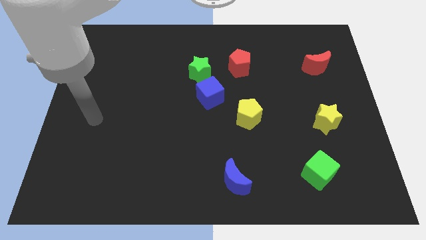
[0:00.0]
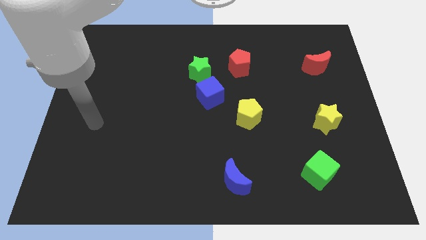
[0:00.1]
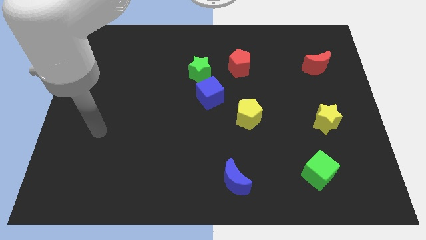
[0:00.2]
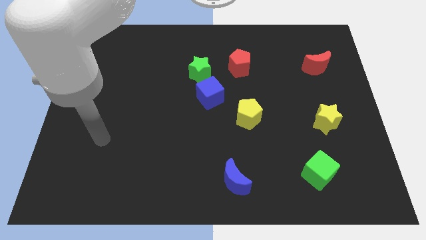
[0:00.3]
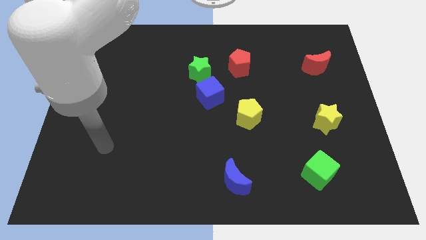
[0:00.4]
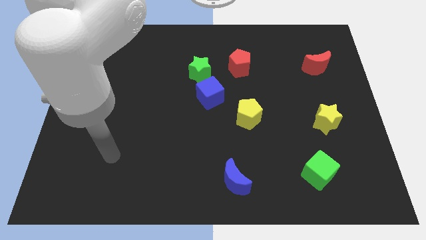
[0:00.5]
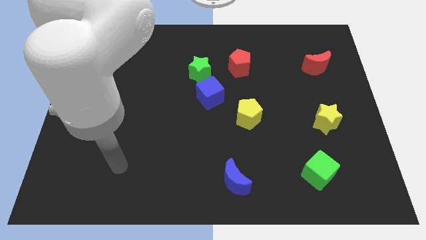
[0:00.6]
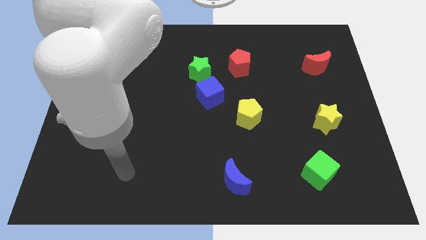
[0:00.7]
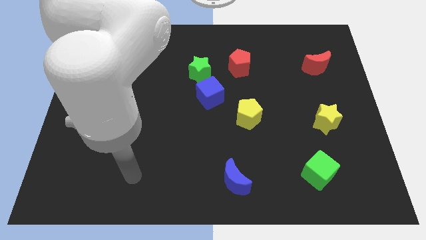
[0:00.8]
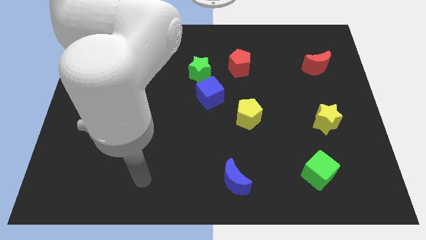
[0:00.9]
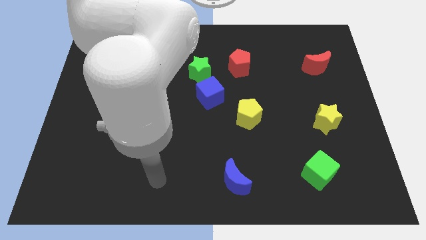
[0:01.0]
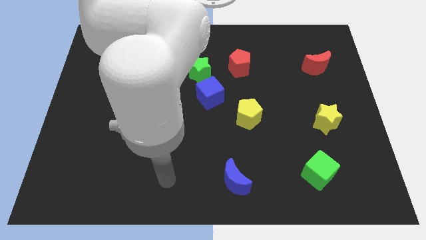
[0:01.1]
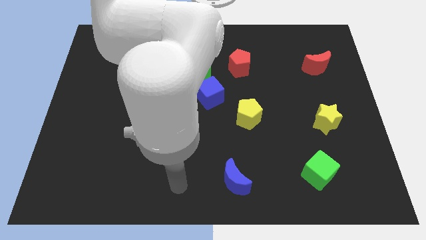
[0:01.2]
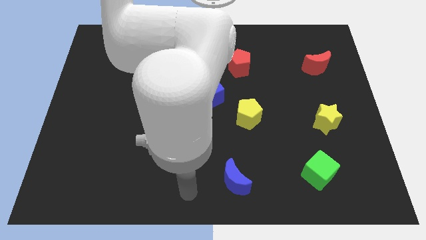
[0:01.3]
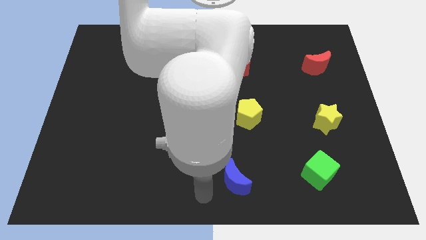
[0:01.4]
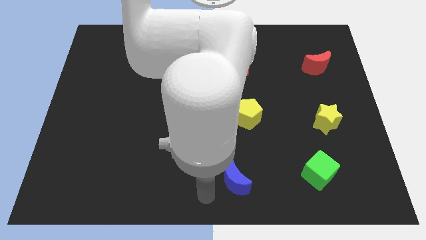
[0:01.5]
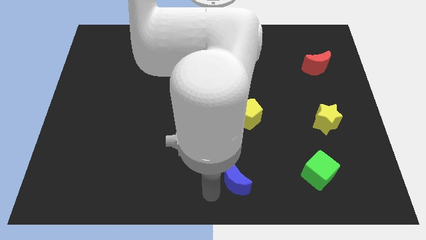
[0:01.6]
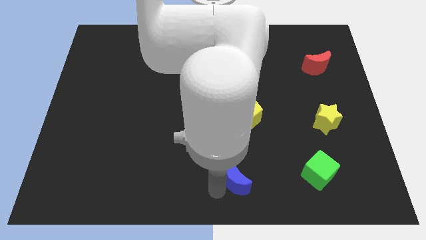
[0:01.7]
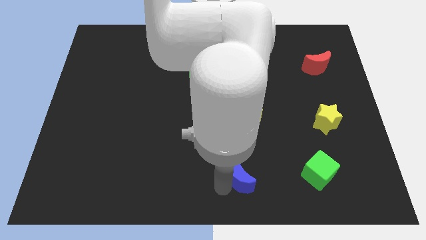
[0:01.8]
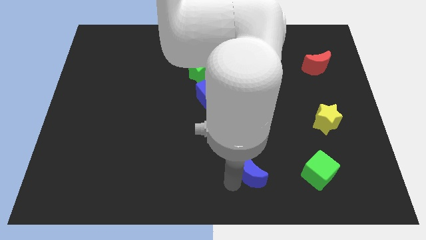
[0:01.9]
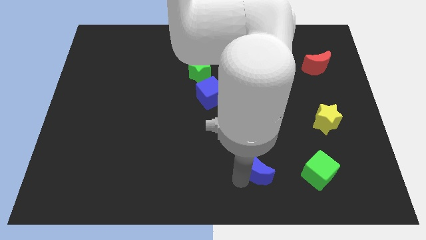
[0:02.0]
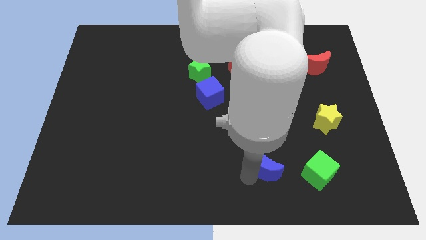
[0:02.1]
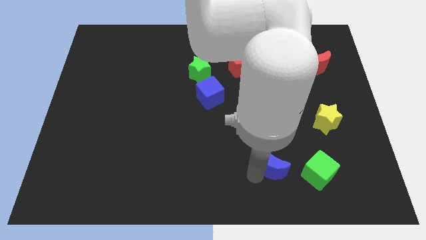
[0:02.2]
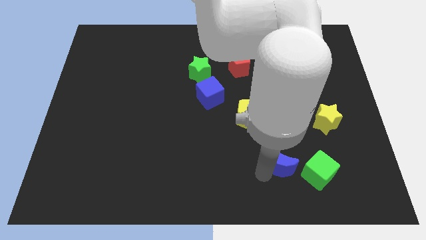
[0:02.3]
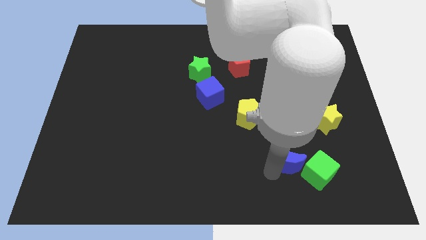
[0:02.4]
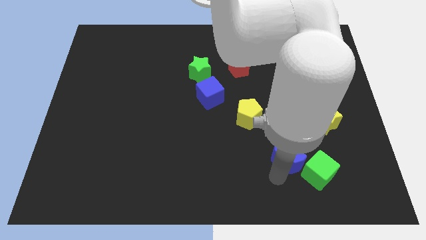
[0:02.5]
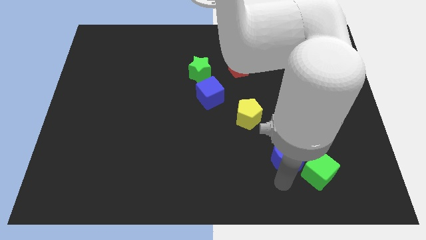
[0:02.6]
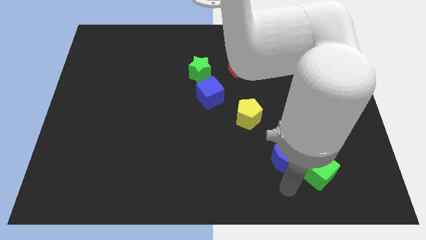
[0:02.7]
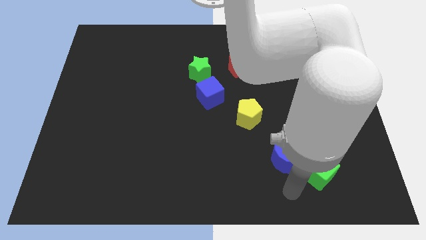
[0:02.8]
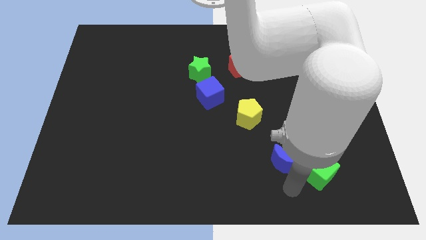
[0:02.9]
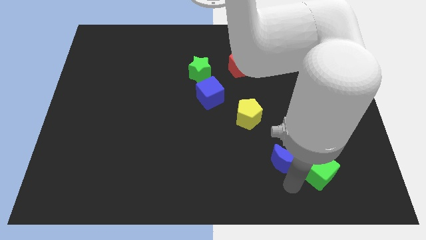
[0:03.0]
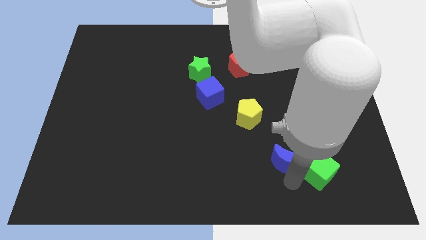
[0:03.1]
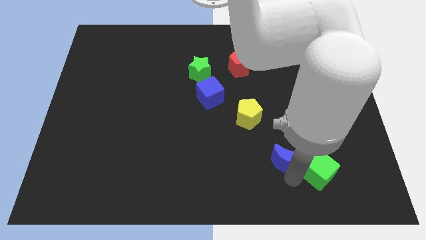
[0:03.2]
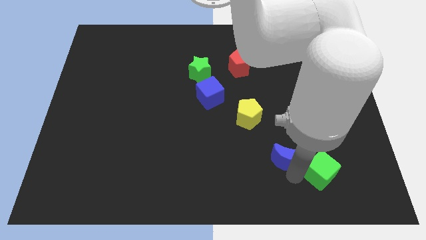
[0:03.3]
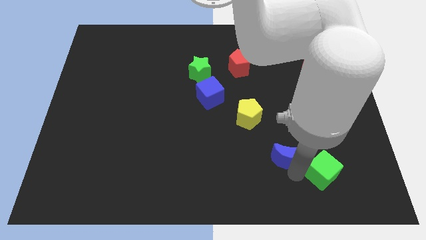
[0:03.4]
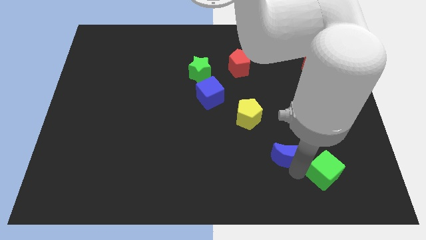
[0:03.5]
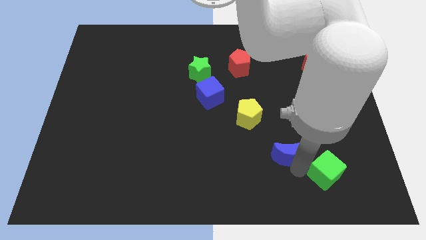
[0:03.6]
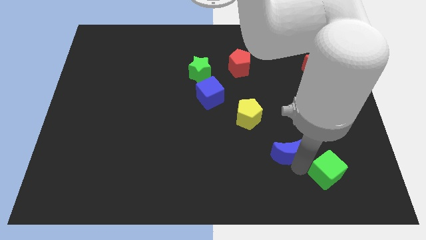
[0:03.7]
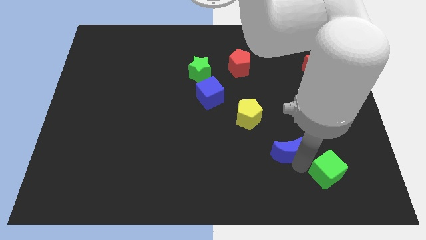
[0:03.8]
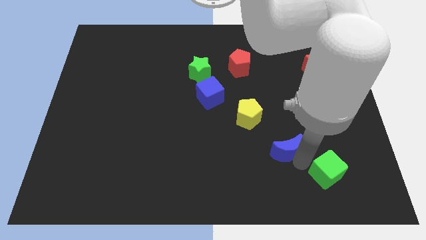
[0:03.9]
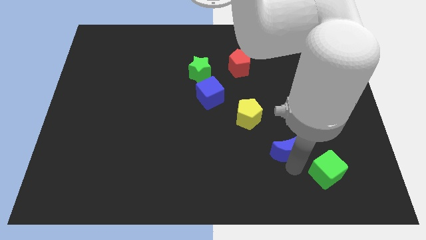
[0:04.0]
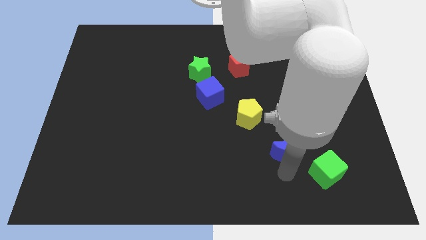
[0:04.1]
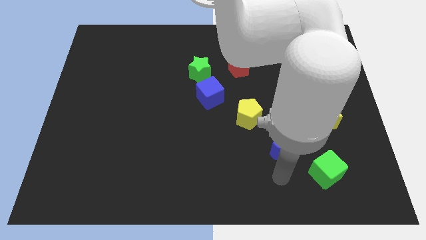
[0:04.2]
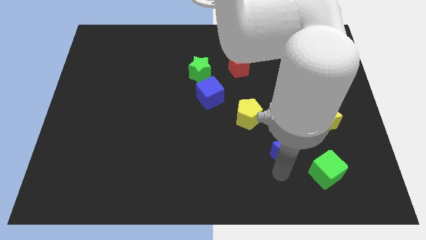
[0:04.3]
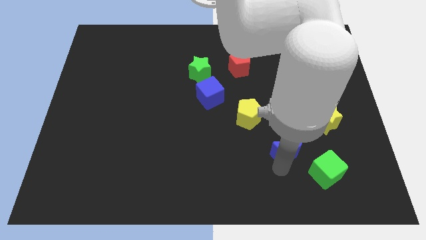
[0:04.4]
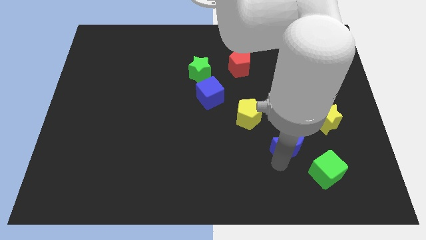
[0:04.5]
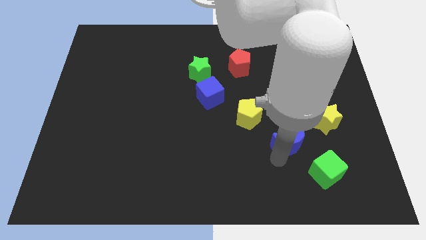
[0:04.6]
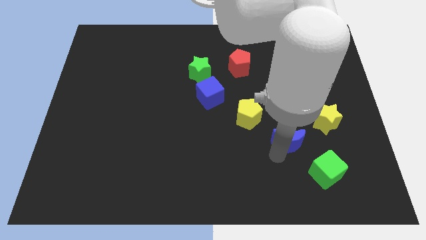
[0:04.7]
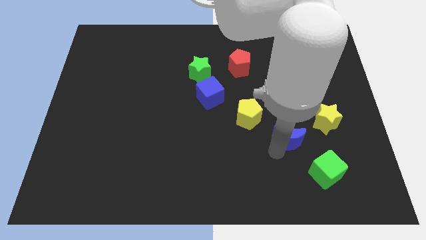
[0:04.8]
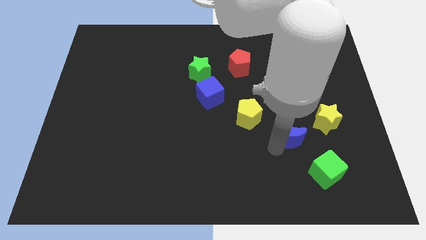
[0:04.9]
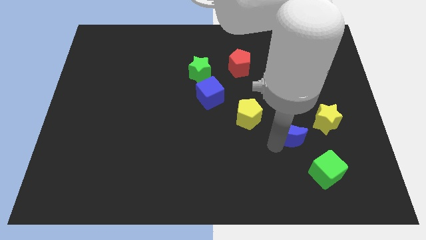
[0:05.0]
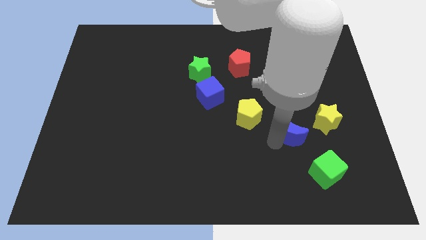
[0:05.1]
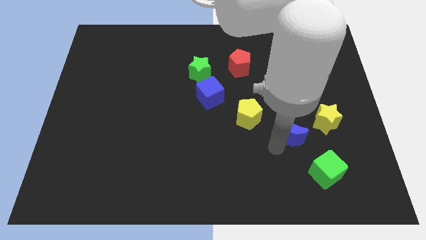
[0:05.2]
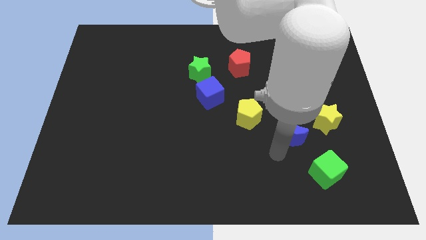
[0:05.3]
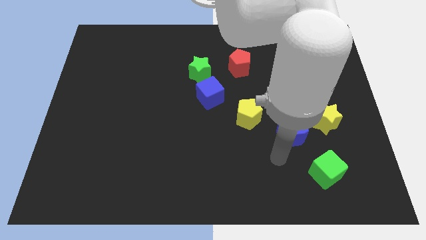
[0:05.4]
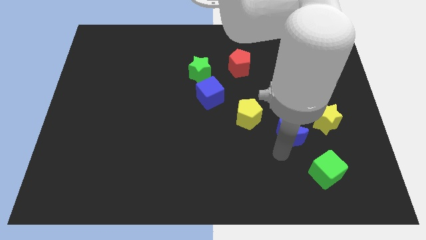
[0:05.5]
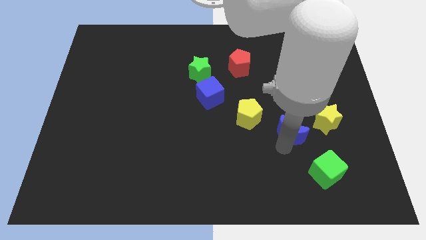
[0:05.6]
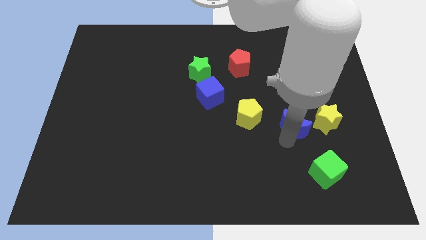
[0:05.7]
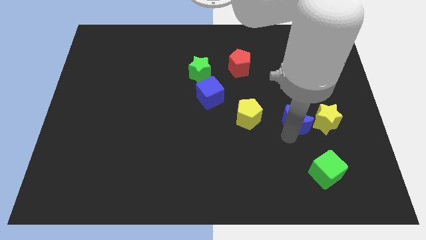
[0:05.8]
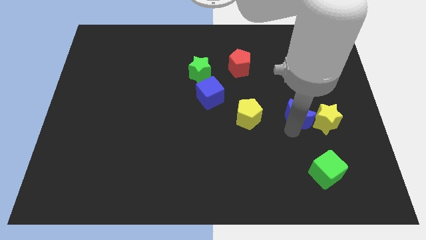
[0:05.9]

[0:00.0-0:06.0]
push the blue moon diagonally up and to the left of the yellow star
